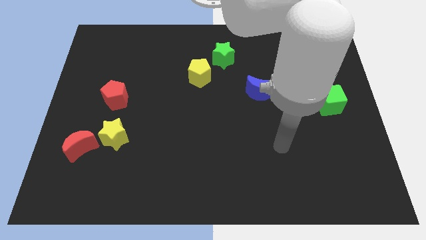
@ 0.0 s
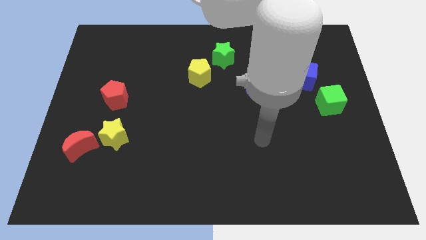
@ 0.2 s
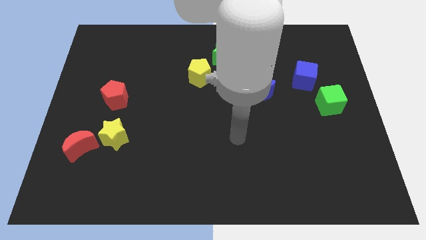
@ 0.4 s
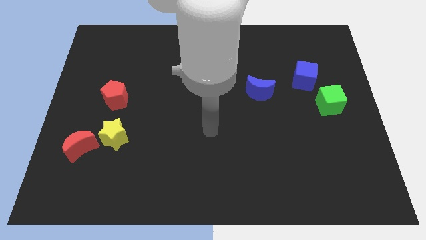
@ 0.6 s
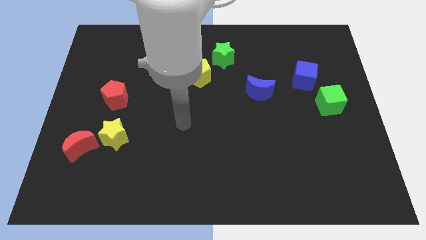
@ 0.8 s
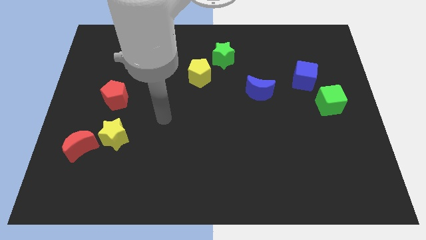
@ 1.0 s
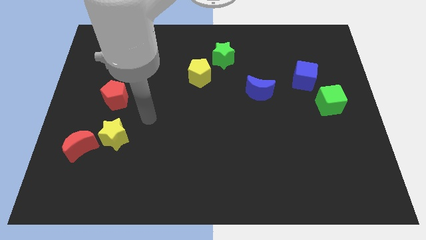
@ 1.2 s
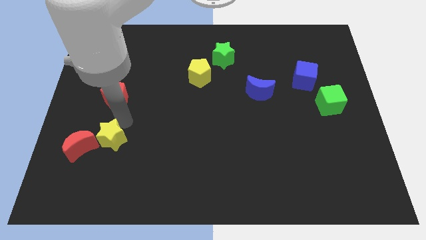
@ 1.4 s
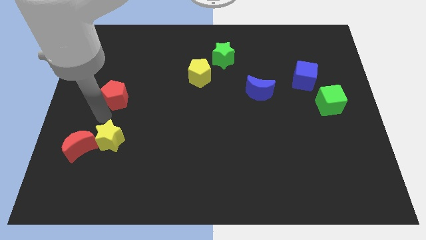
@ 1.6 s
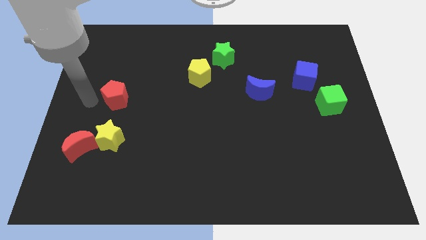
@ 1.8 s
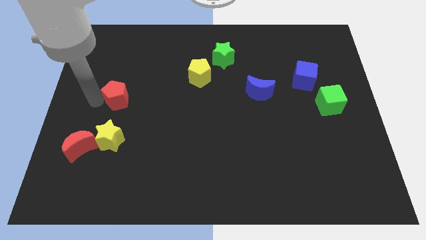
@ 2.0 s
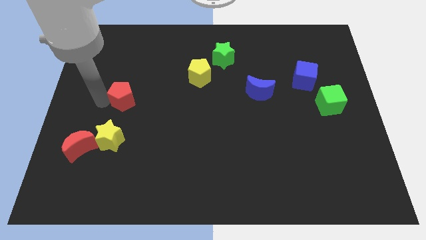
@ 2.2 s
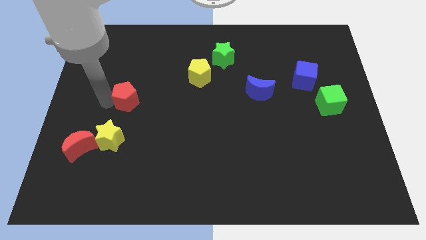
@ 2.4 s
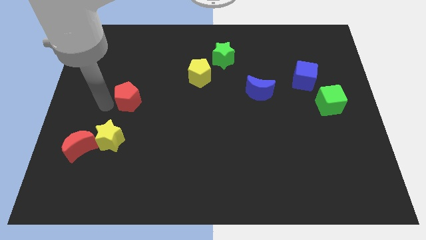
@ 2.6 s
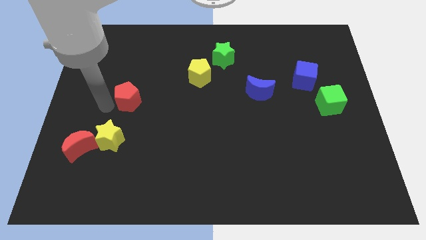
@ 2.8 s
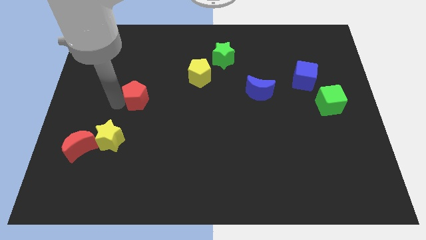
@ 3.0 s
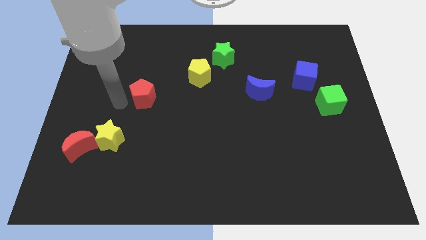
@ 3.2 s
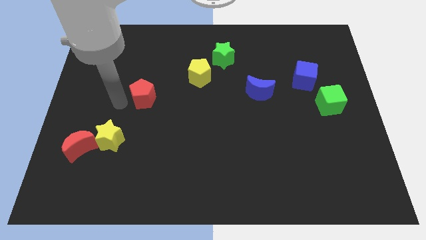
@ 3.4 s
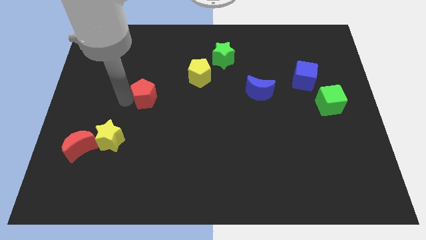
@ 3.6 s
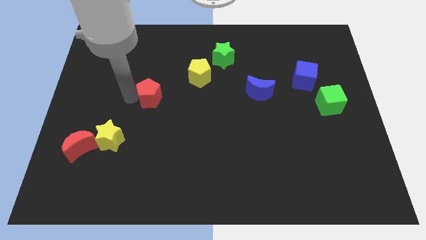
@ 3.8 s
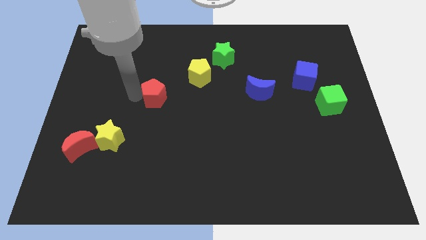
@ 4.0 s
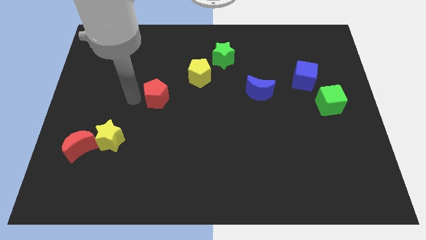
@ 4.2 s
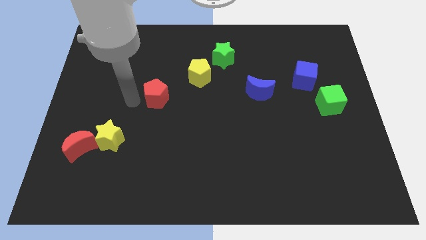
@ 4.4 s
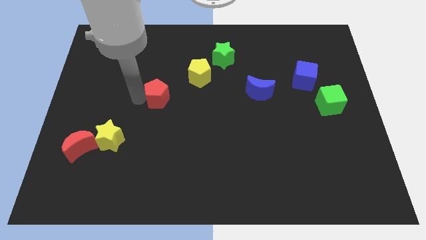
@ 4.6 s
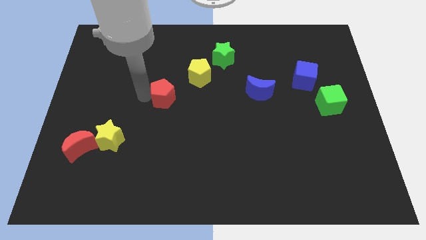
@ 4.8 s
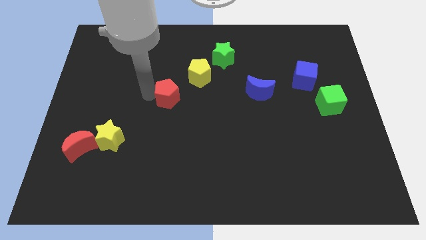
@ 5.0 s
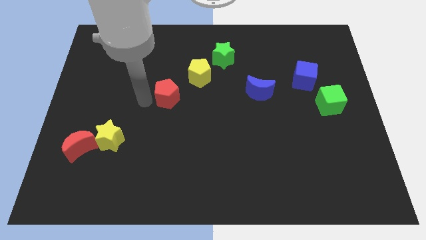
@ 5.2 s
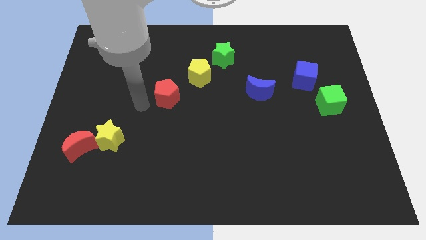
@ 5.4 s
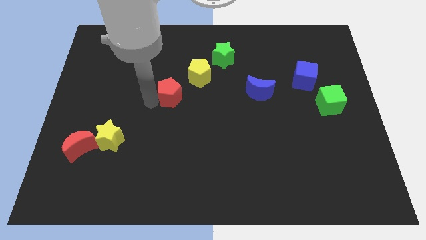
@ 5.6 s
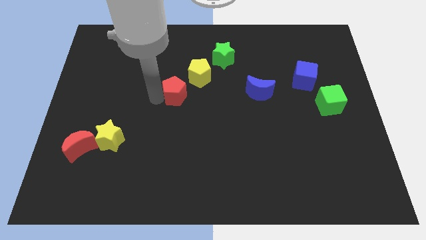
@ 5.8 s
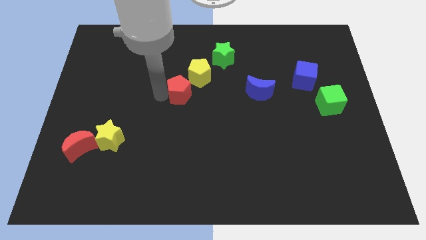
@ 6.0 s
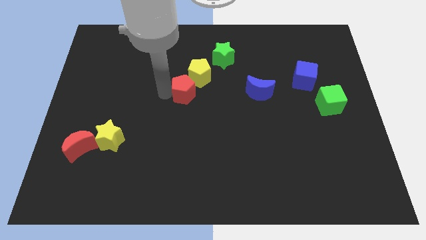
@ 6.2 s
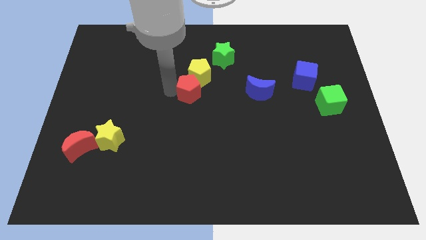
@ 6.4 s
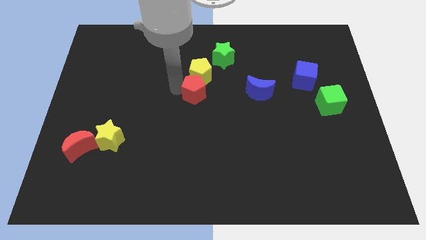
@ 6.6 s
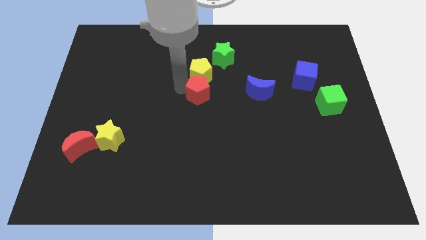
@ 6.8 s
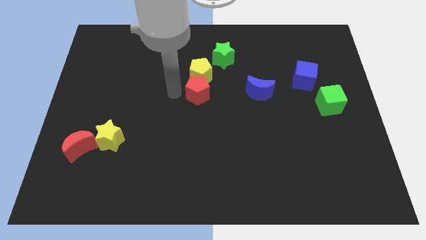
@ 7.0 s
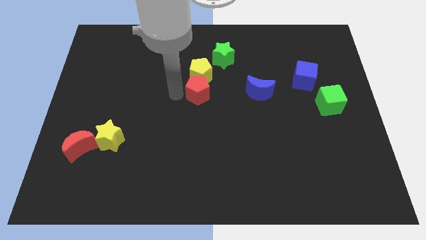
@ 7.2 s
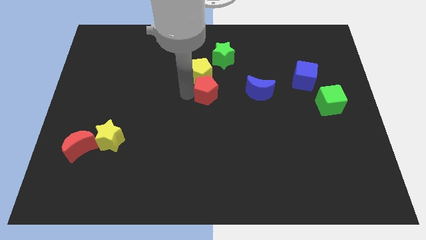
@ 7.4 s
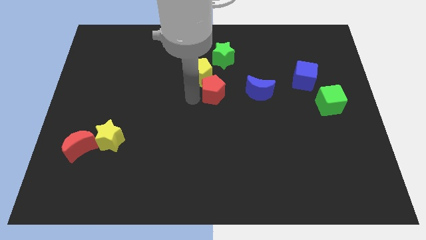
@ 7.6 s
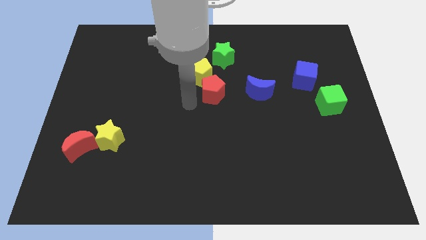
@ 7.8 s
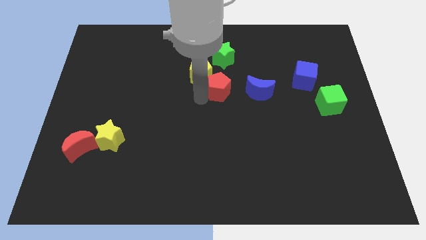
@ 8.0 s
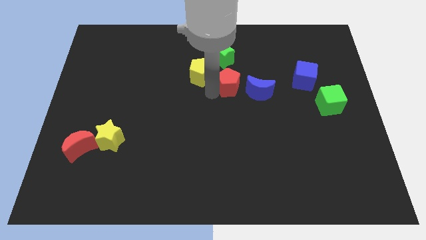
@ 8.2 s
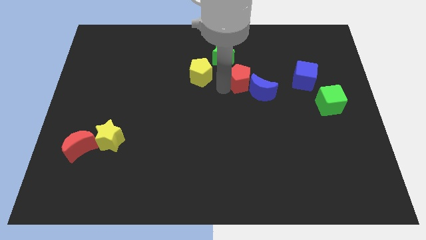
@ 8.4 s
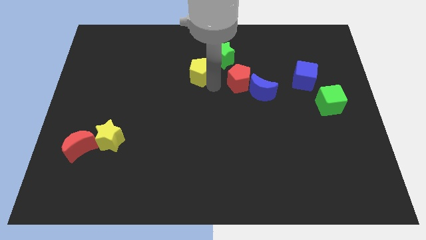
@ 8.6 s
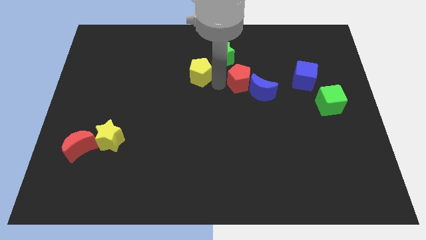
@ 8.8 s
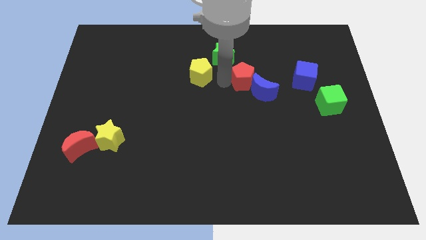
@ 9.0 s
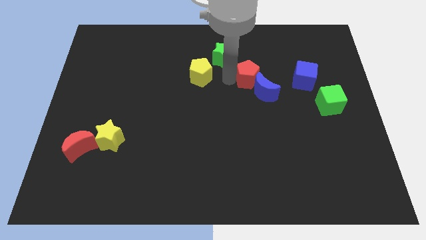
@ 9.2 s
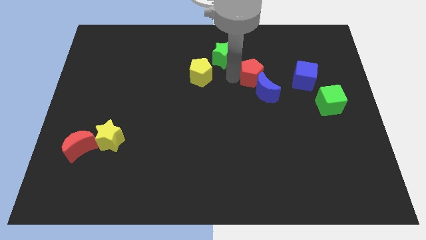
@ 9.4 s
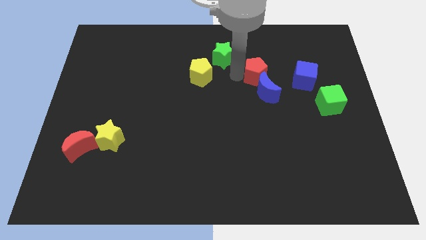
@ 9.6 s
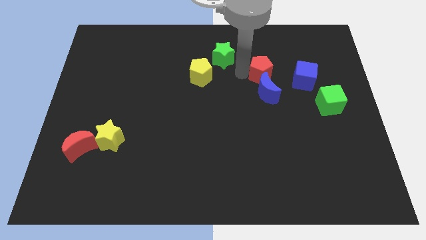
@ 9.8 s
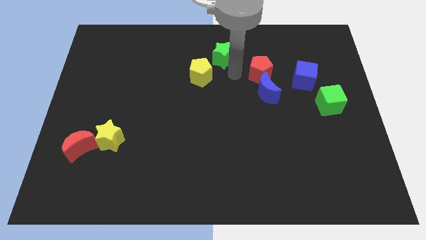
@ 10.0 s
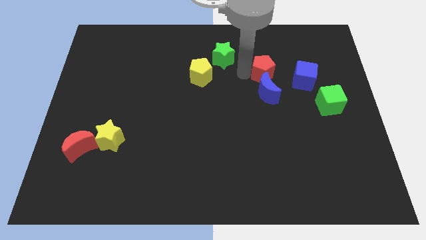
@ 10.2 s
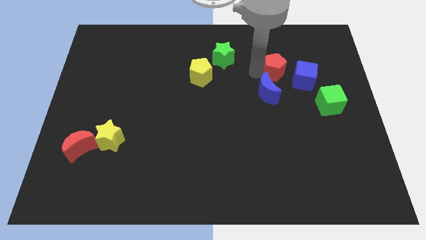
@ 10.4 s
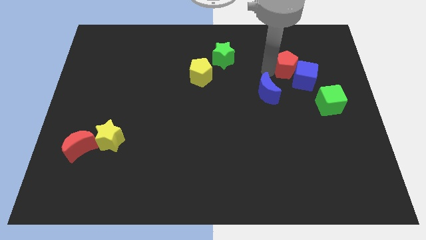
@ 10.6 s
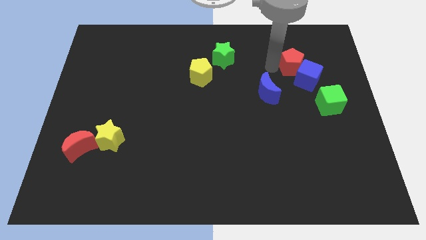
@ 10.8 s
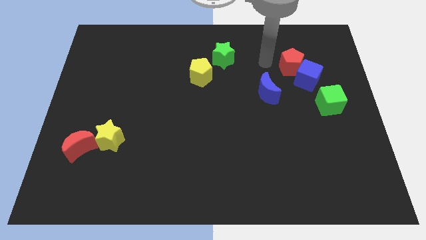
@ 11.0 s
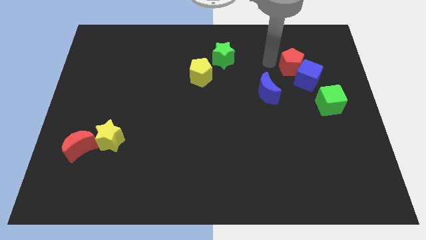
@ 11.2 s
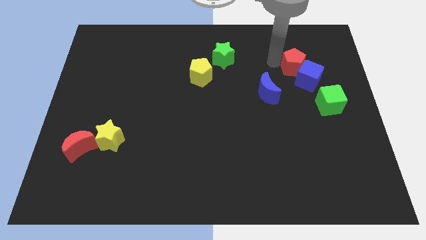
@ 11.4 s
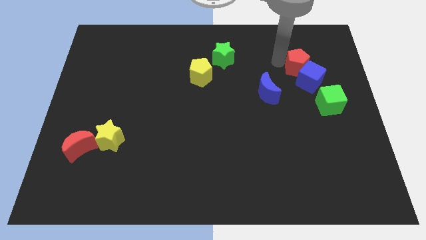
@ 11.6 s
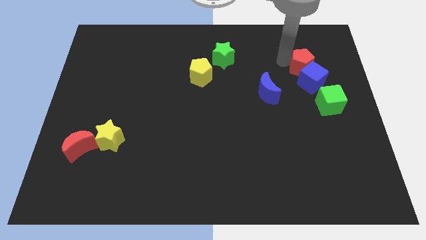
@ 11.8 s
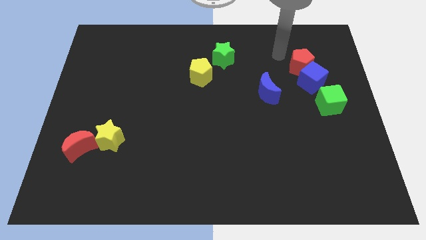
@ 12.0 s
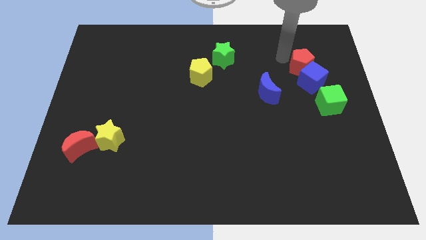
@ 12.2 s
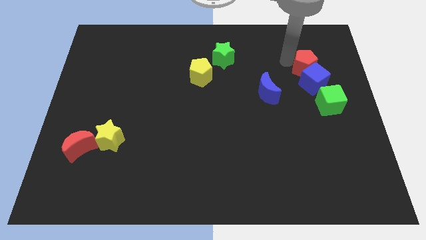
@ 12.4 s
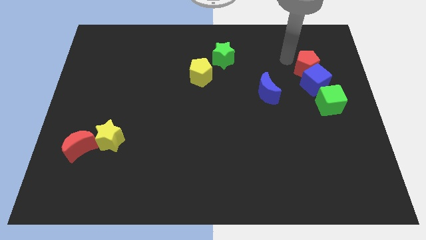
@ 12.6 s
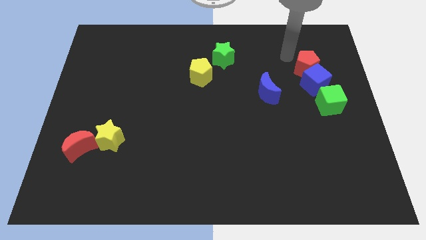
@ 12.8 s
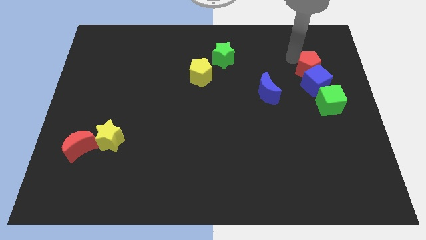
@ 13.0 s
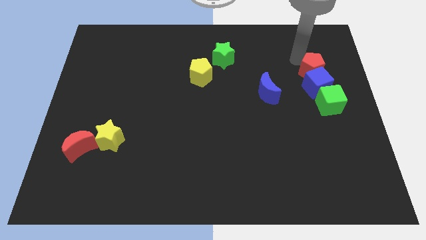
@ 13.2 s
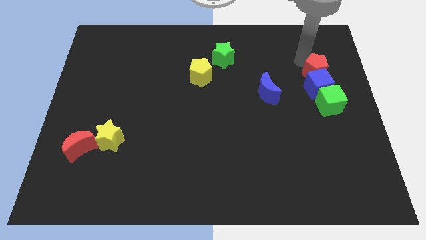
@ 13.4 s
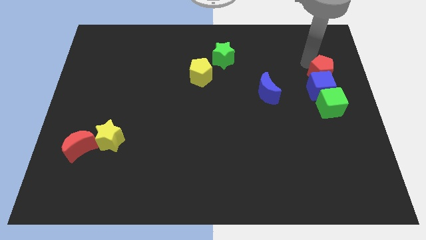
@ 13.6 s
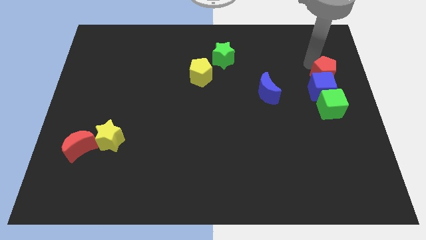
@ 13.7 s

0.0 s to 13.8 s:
push the red pentagon to the right side

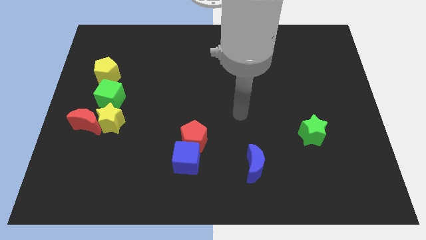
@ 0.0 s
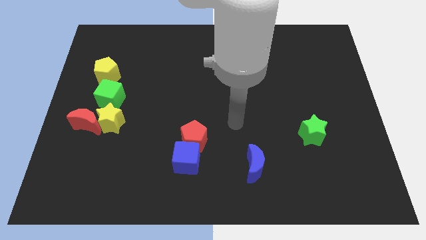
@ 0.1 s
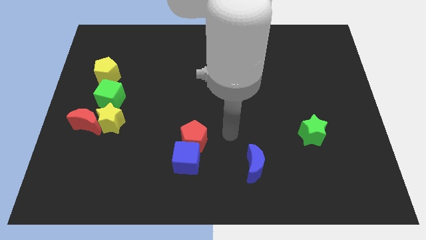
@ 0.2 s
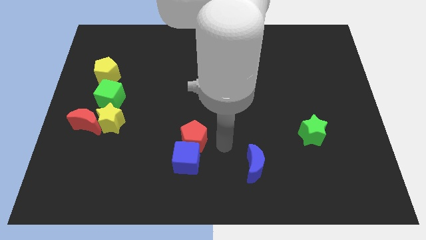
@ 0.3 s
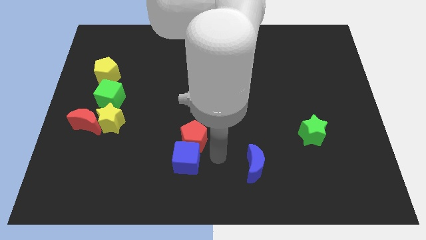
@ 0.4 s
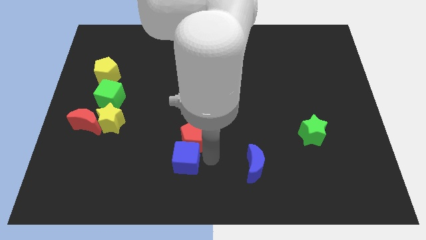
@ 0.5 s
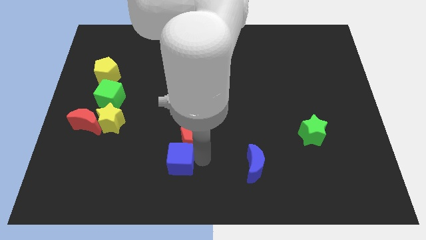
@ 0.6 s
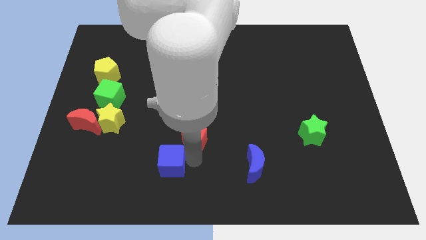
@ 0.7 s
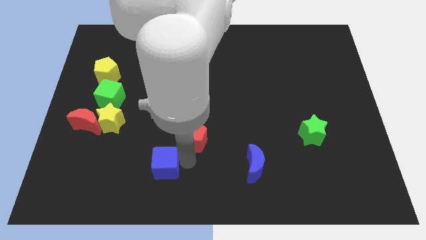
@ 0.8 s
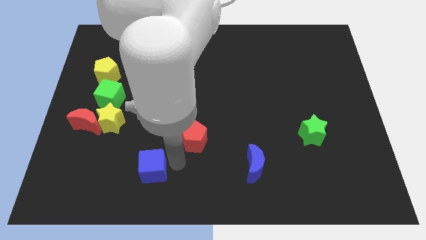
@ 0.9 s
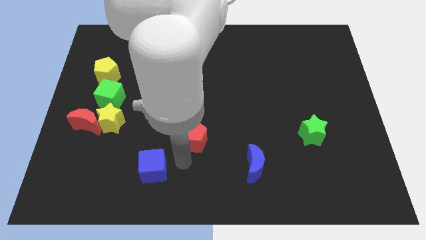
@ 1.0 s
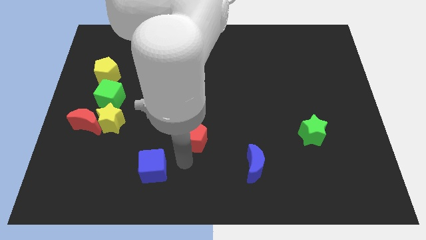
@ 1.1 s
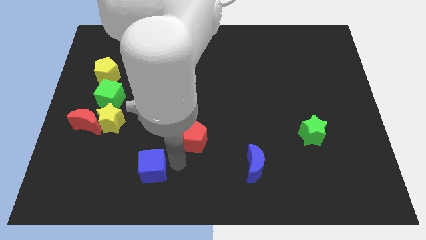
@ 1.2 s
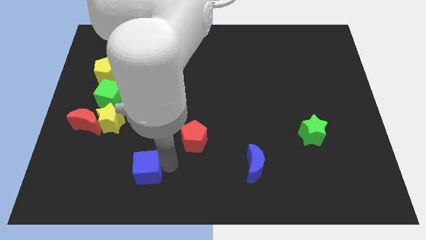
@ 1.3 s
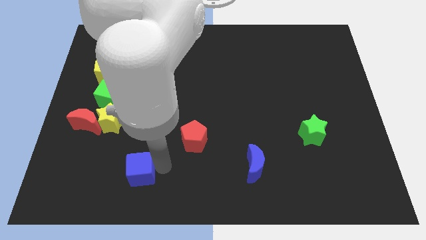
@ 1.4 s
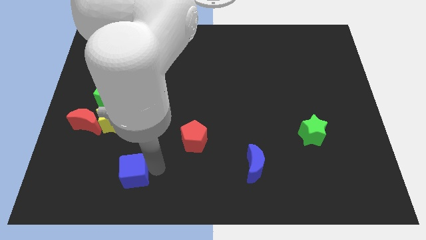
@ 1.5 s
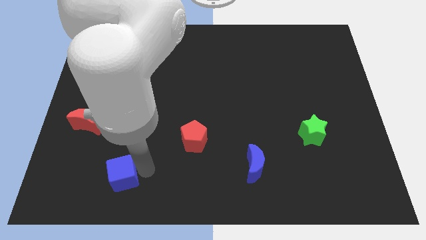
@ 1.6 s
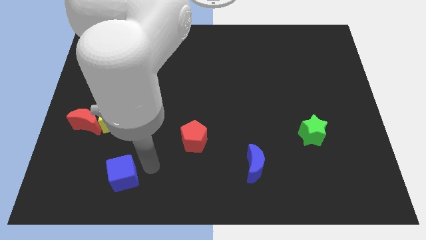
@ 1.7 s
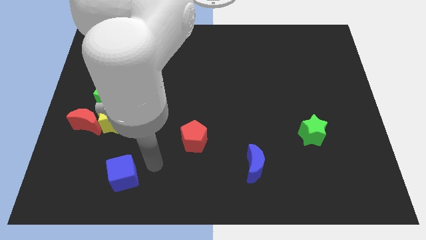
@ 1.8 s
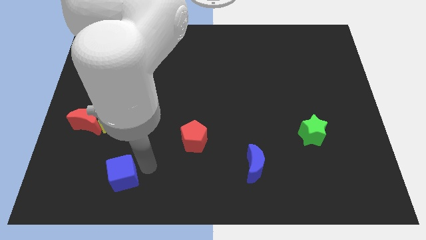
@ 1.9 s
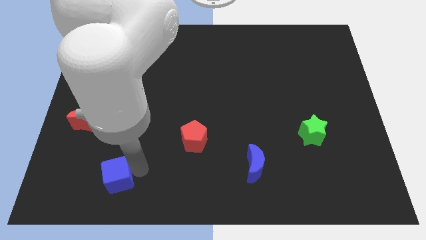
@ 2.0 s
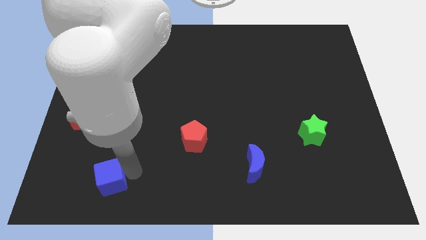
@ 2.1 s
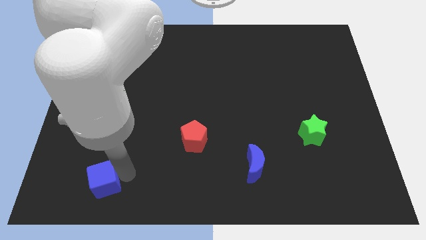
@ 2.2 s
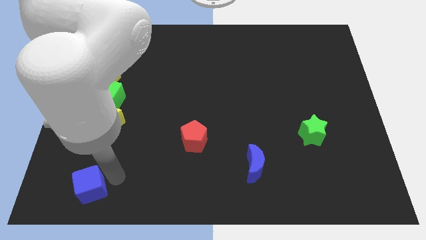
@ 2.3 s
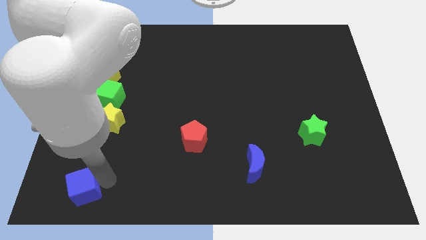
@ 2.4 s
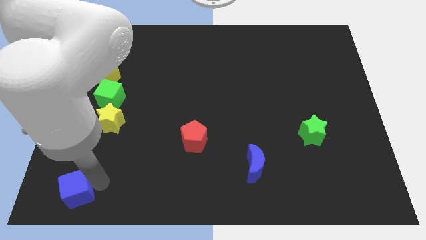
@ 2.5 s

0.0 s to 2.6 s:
push the blue cube to the bottom left
